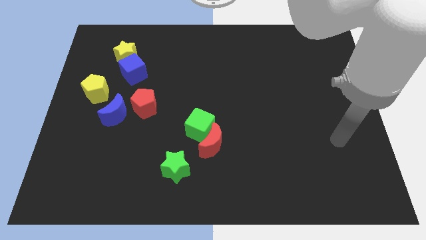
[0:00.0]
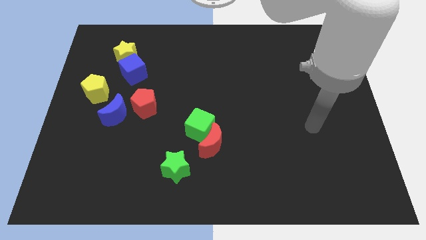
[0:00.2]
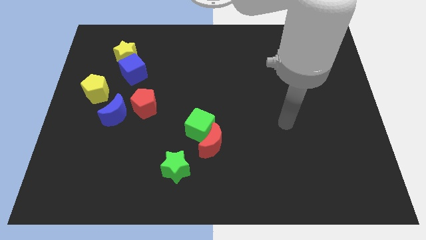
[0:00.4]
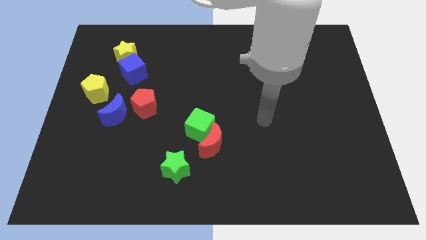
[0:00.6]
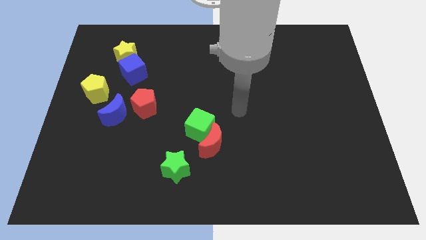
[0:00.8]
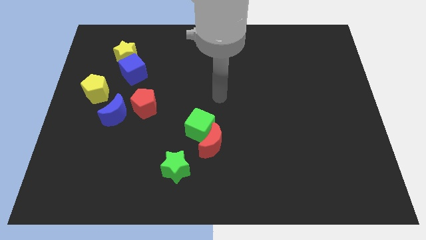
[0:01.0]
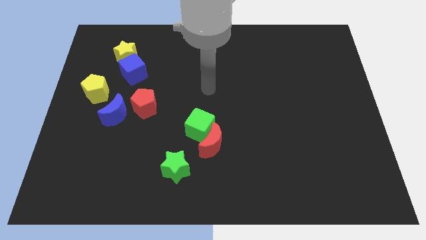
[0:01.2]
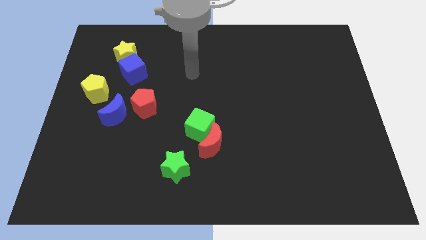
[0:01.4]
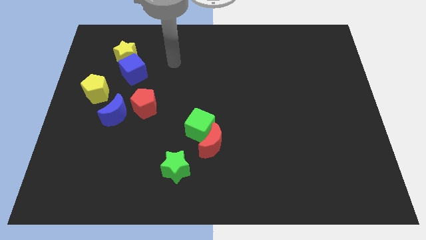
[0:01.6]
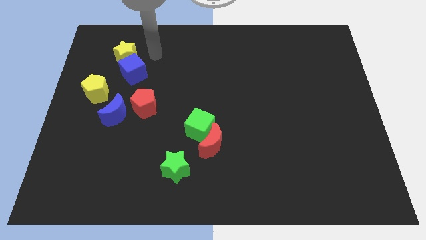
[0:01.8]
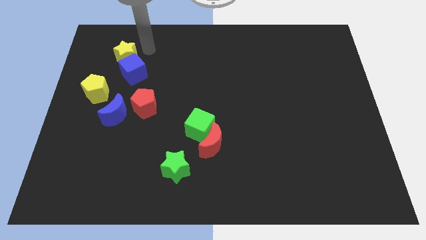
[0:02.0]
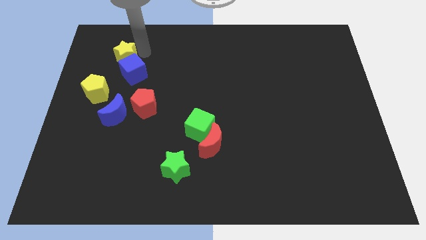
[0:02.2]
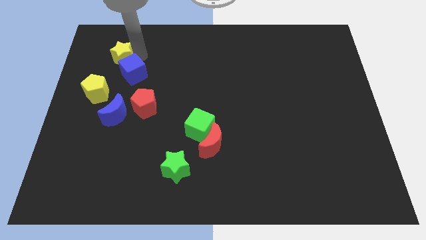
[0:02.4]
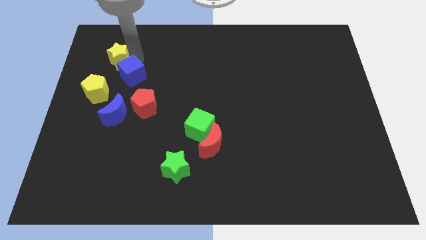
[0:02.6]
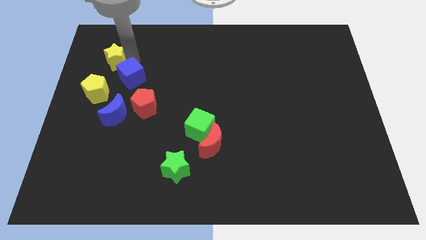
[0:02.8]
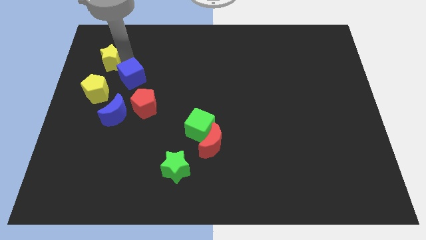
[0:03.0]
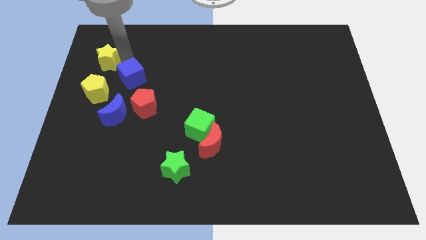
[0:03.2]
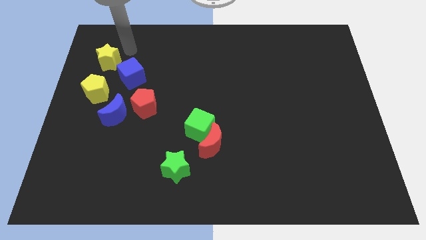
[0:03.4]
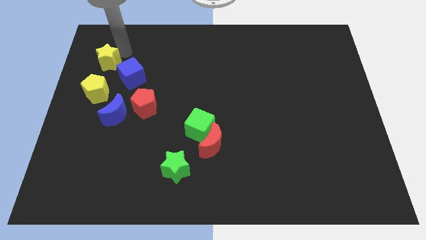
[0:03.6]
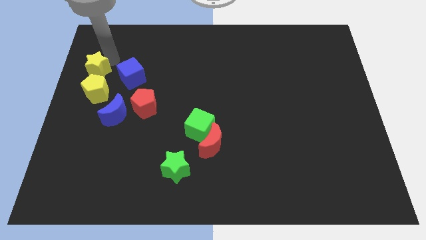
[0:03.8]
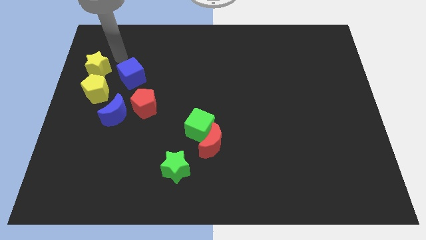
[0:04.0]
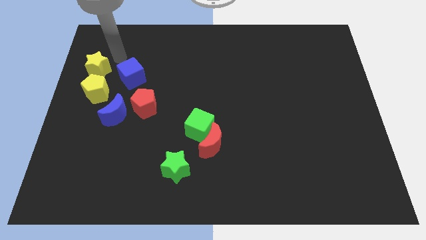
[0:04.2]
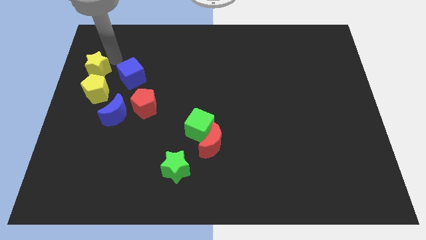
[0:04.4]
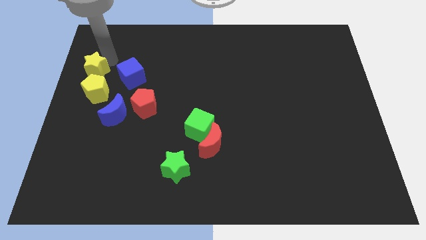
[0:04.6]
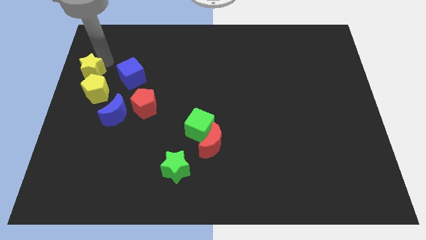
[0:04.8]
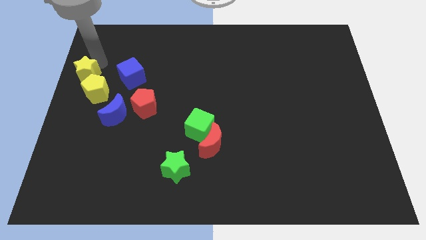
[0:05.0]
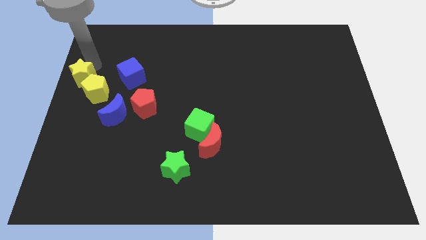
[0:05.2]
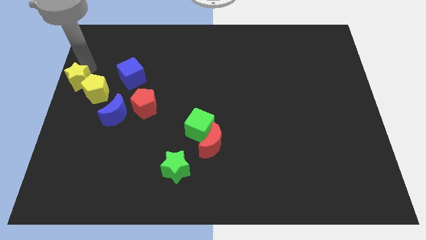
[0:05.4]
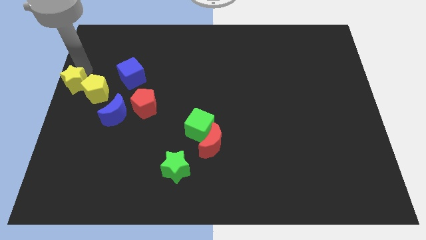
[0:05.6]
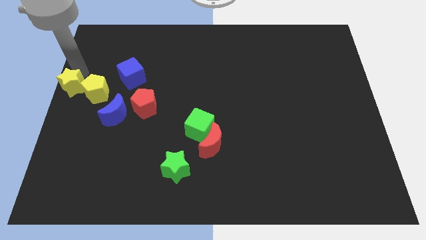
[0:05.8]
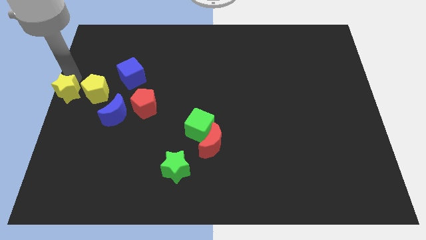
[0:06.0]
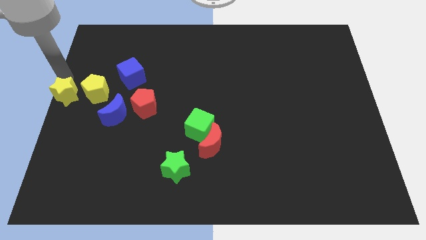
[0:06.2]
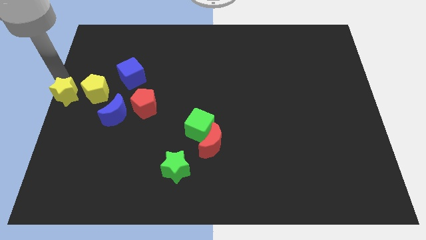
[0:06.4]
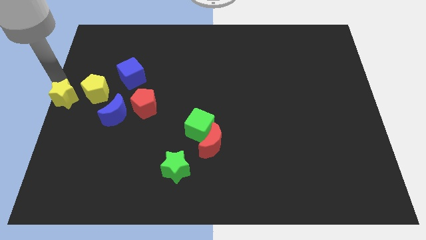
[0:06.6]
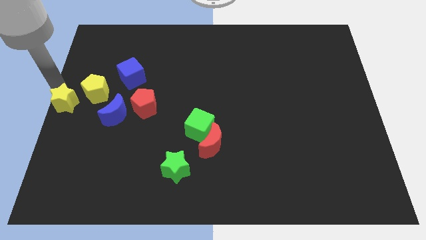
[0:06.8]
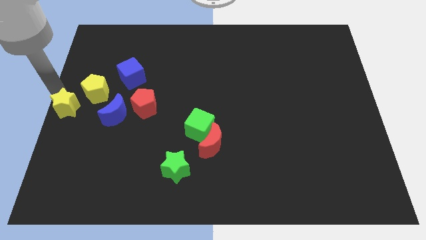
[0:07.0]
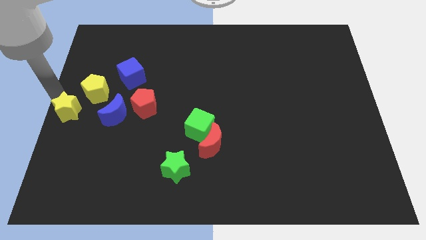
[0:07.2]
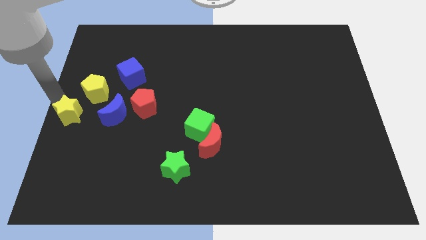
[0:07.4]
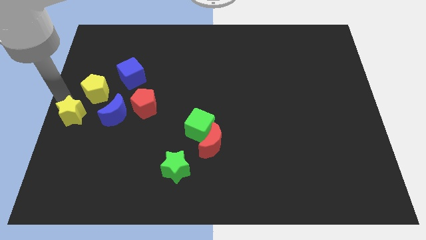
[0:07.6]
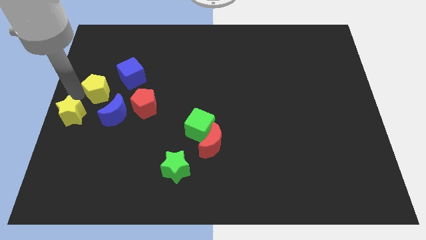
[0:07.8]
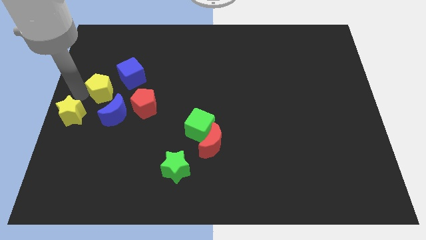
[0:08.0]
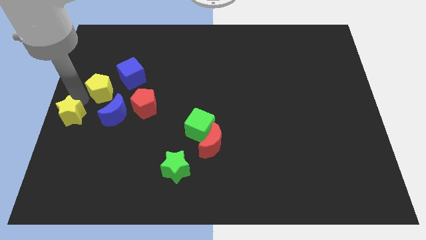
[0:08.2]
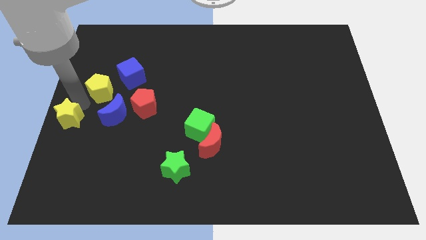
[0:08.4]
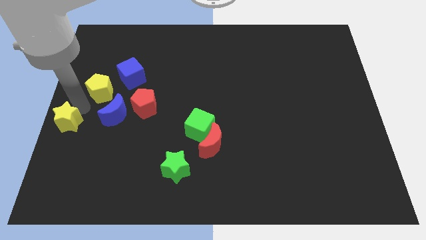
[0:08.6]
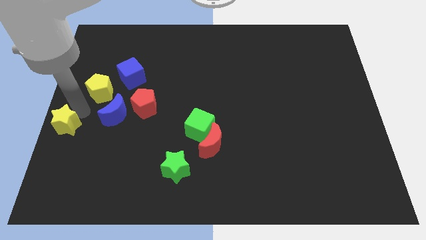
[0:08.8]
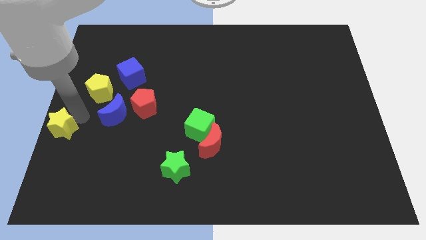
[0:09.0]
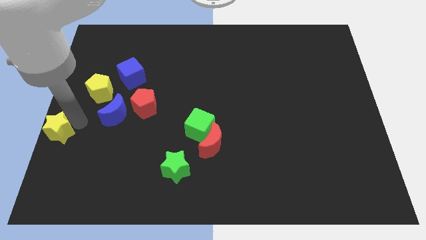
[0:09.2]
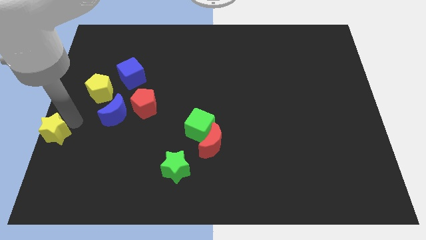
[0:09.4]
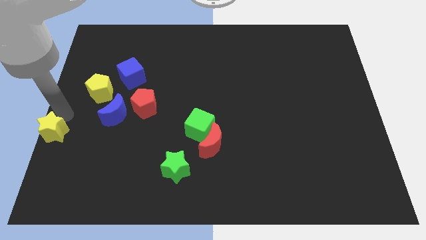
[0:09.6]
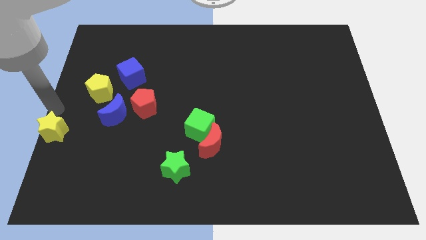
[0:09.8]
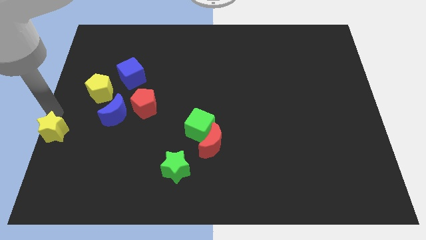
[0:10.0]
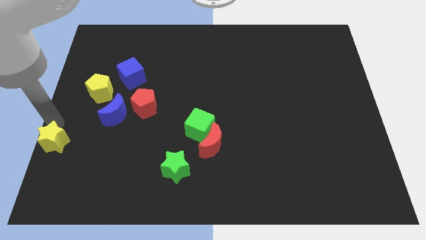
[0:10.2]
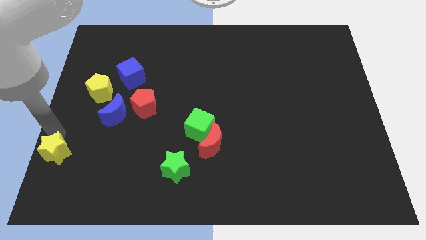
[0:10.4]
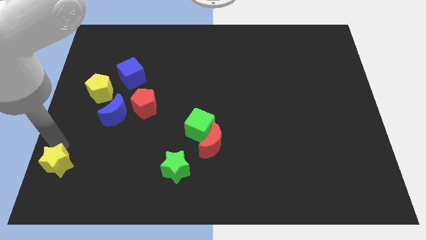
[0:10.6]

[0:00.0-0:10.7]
move the yellow star to the lower left corner

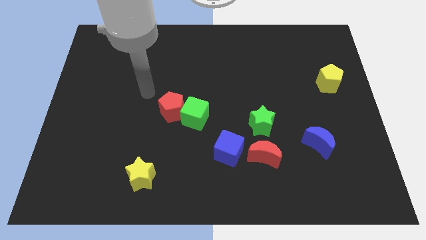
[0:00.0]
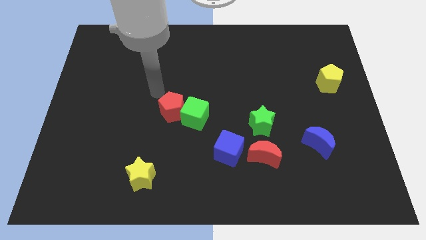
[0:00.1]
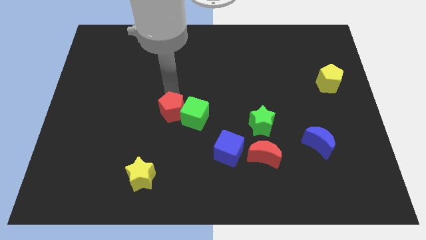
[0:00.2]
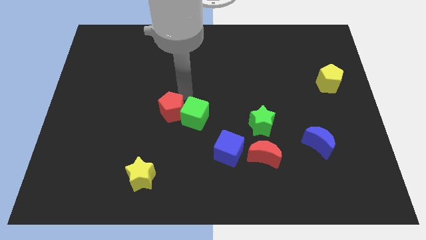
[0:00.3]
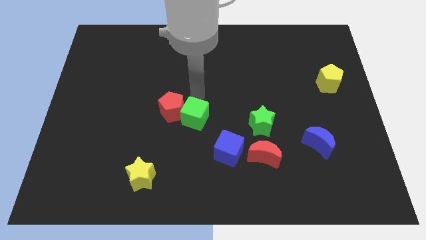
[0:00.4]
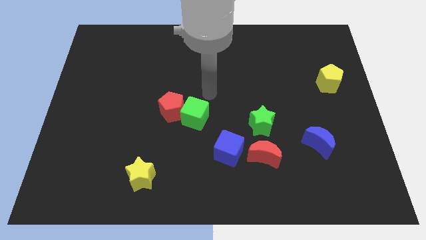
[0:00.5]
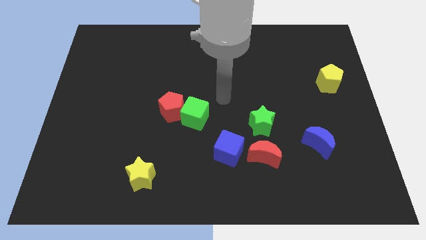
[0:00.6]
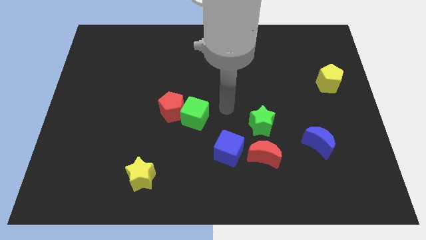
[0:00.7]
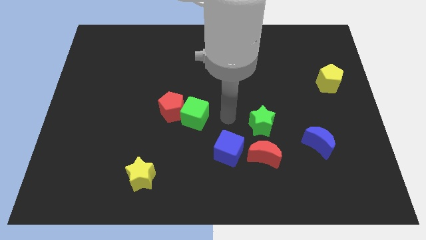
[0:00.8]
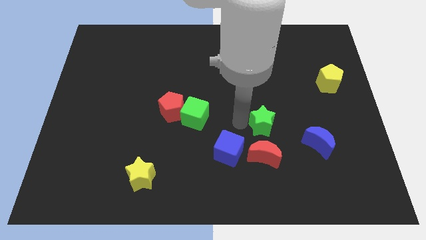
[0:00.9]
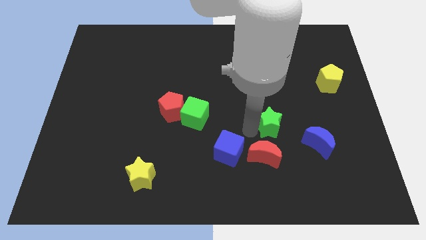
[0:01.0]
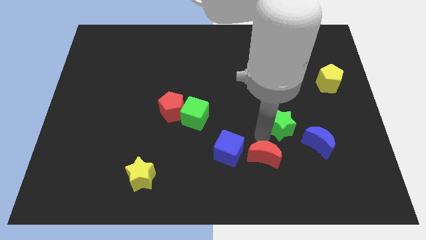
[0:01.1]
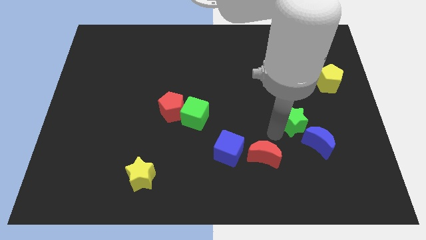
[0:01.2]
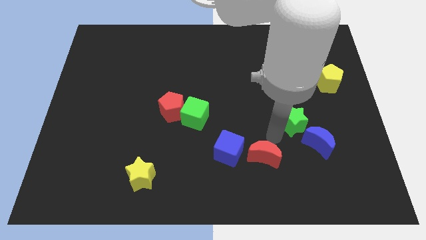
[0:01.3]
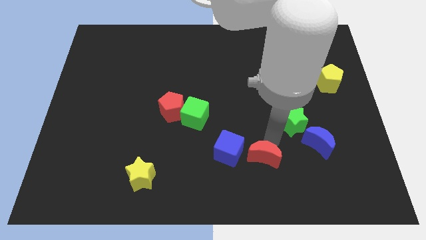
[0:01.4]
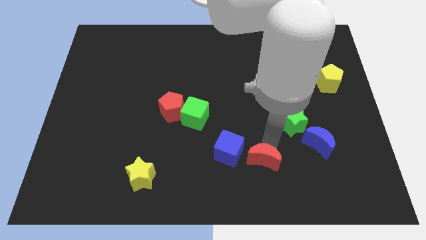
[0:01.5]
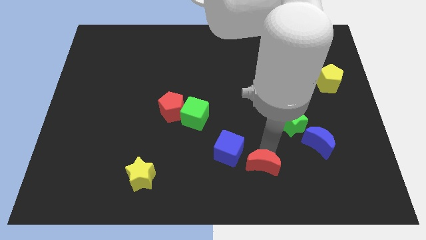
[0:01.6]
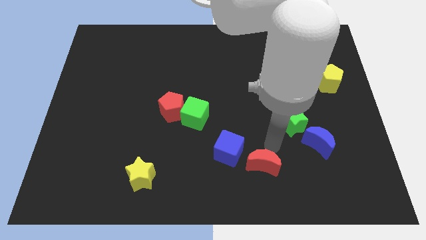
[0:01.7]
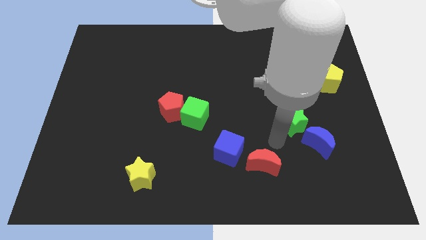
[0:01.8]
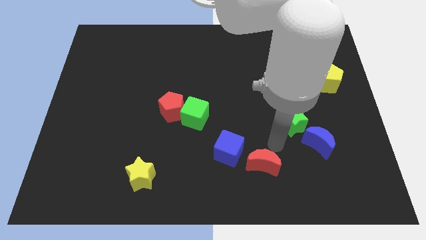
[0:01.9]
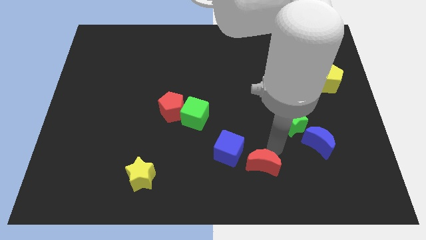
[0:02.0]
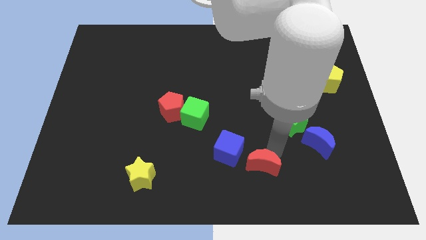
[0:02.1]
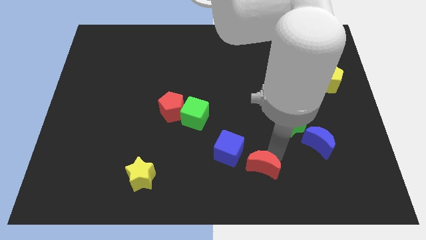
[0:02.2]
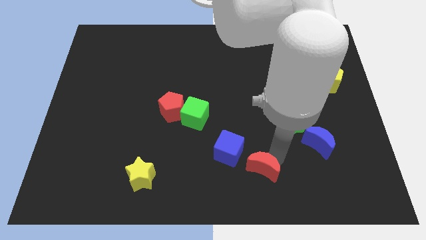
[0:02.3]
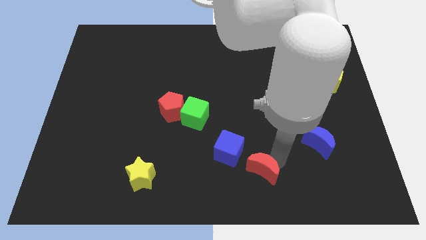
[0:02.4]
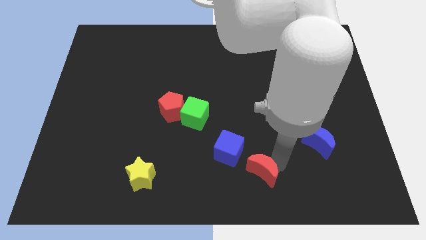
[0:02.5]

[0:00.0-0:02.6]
push the red moon to the bottom
